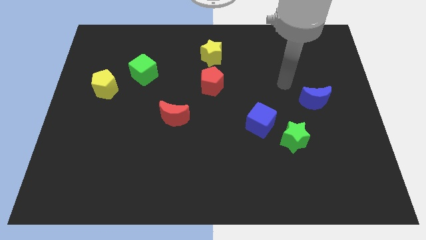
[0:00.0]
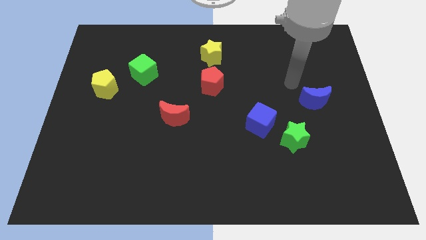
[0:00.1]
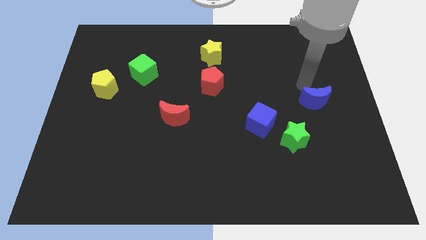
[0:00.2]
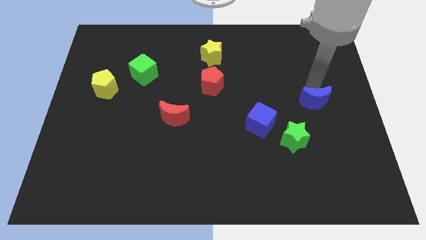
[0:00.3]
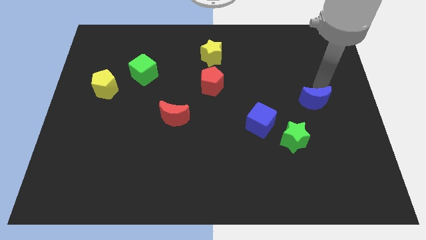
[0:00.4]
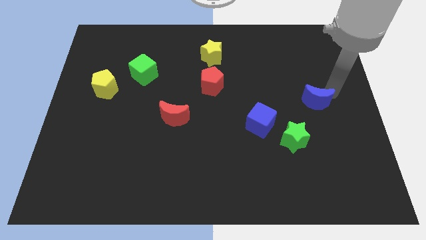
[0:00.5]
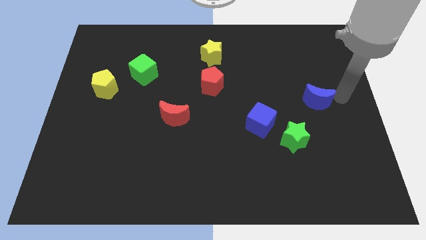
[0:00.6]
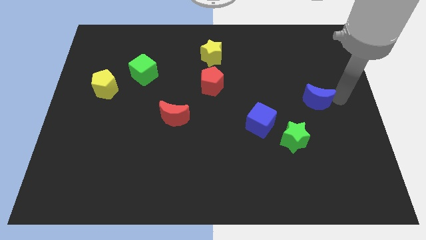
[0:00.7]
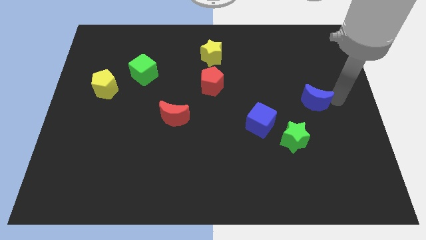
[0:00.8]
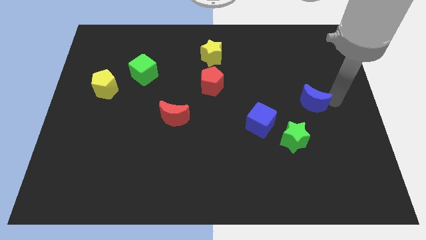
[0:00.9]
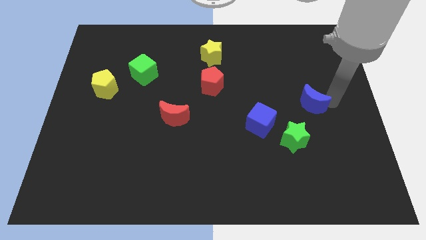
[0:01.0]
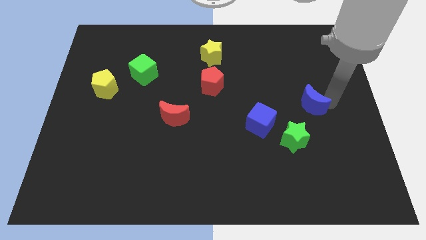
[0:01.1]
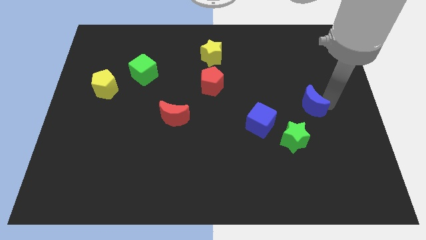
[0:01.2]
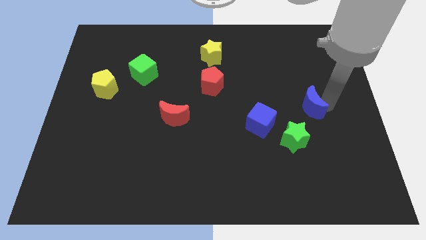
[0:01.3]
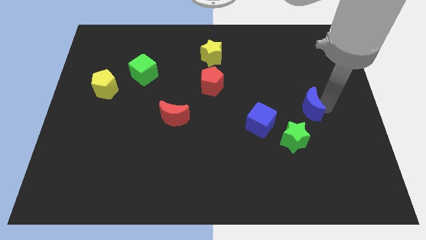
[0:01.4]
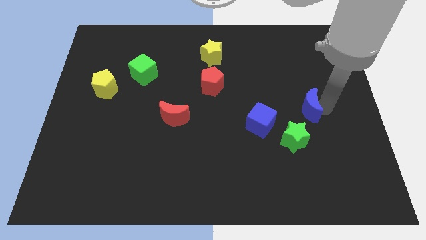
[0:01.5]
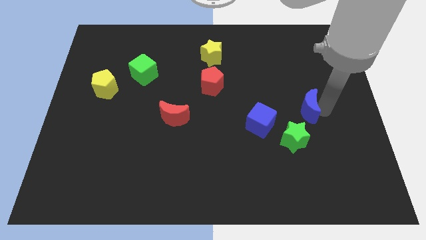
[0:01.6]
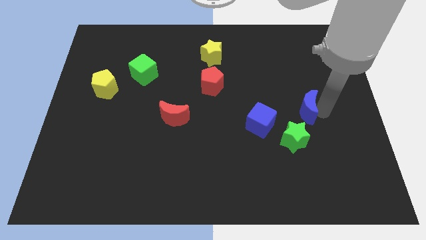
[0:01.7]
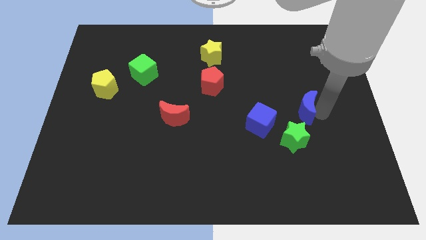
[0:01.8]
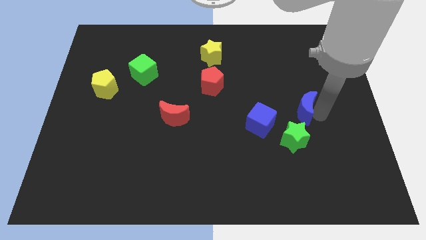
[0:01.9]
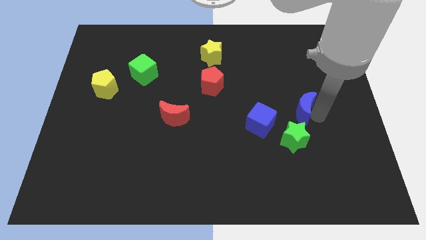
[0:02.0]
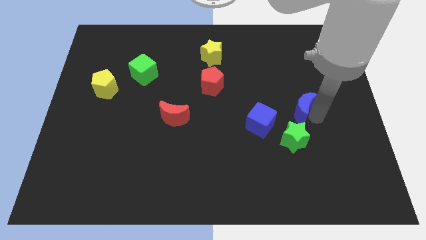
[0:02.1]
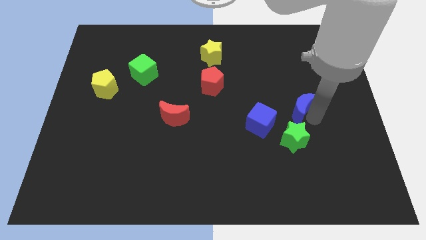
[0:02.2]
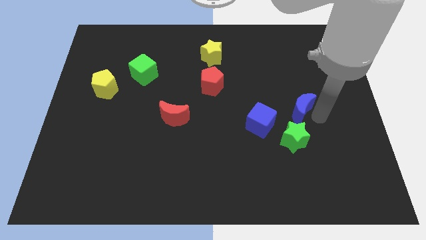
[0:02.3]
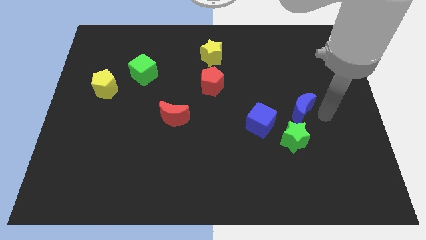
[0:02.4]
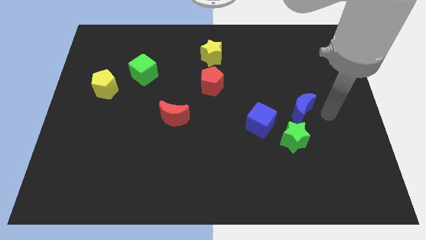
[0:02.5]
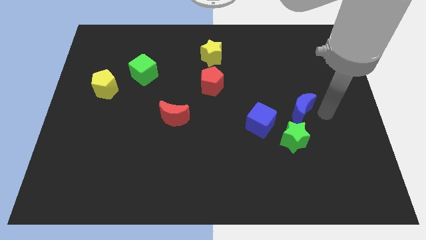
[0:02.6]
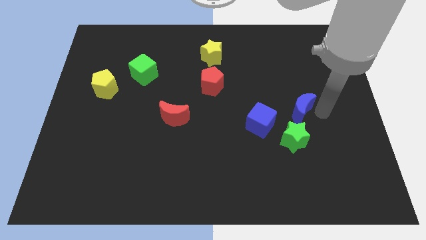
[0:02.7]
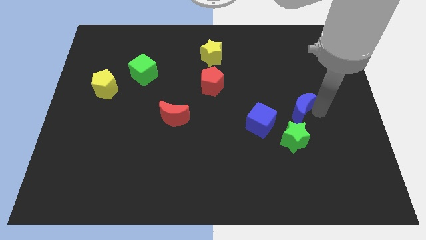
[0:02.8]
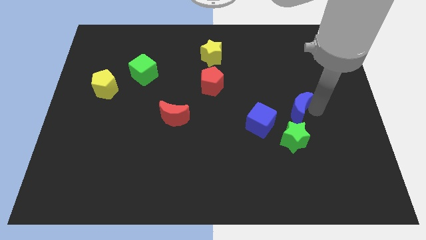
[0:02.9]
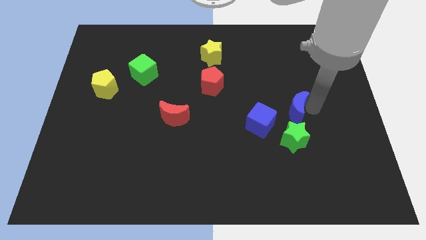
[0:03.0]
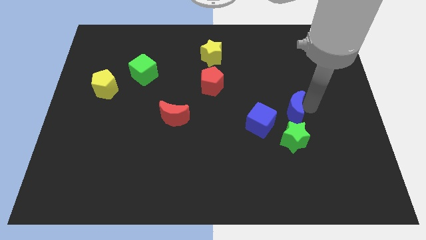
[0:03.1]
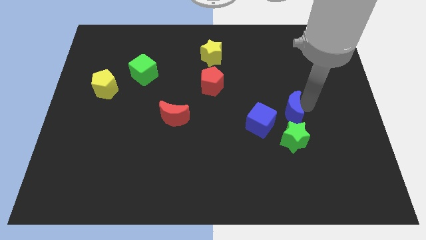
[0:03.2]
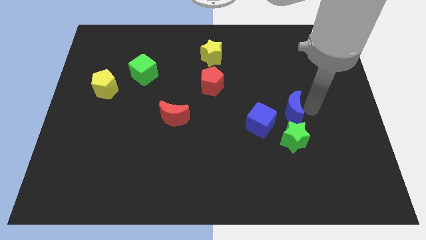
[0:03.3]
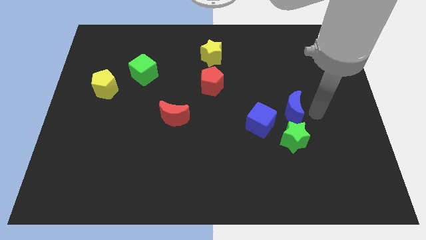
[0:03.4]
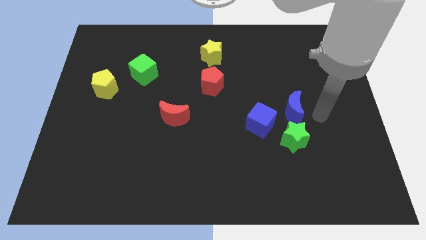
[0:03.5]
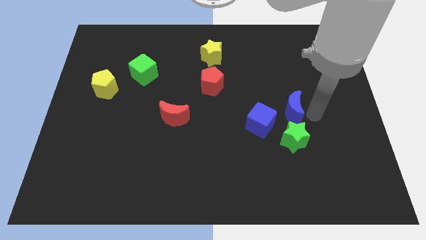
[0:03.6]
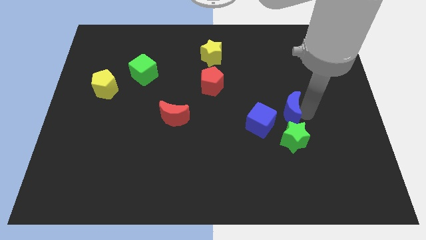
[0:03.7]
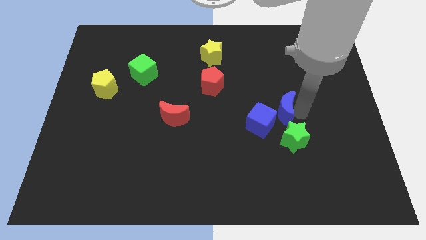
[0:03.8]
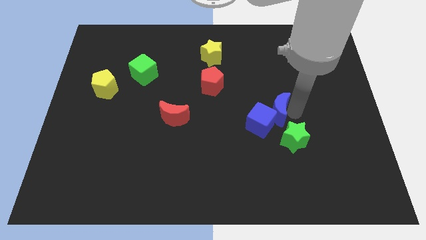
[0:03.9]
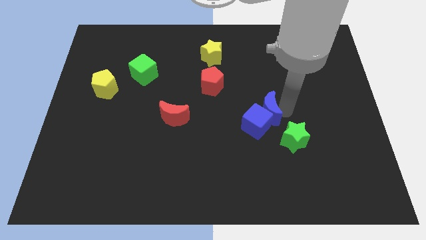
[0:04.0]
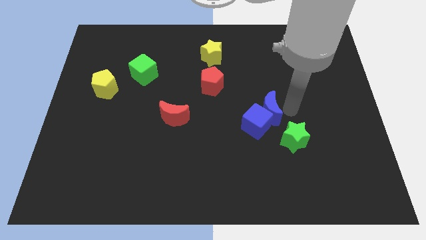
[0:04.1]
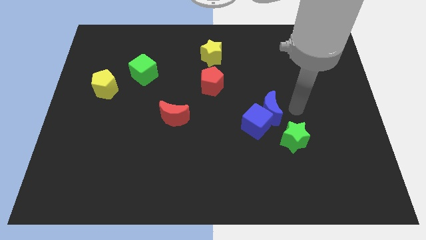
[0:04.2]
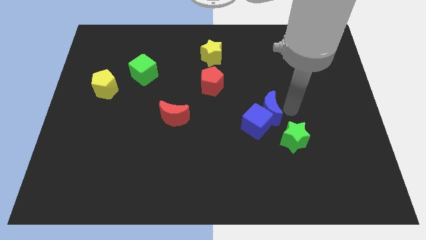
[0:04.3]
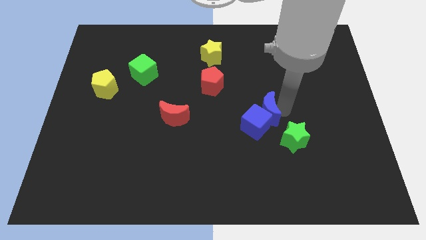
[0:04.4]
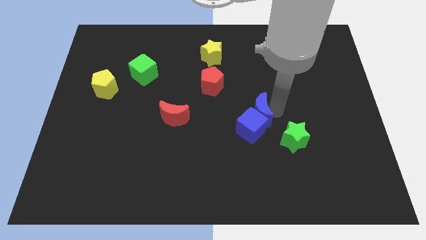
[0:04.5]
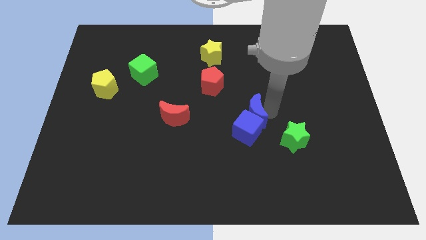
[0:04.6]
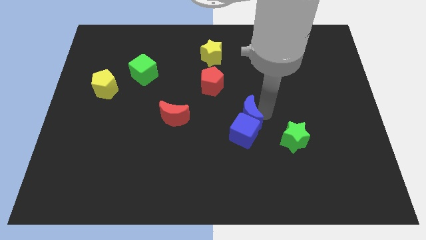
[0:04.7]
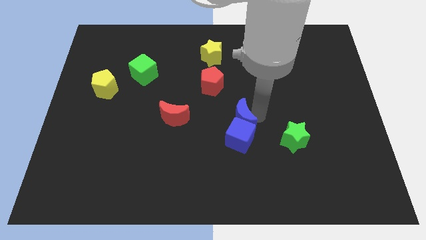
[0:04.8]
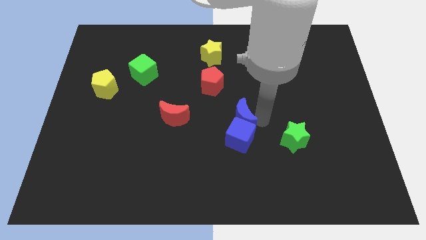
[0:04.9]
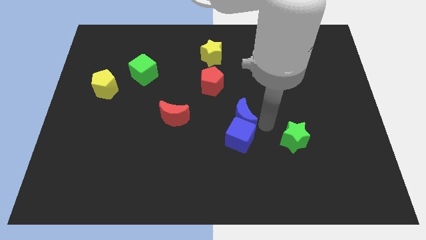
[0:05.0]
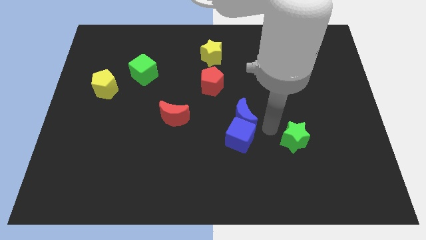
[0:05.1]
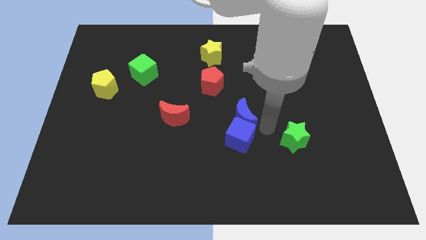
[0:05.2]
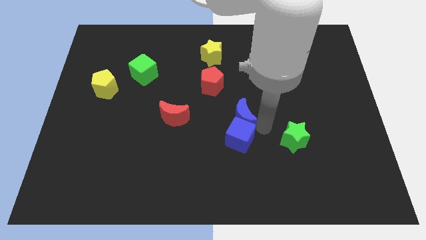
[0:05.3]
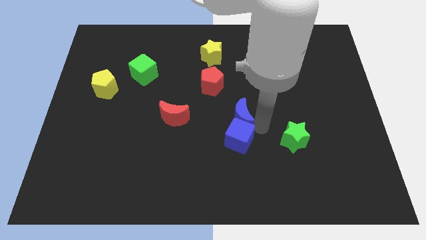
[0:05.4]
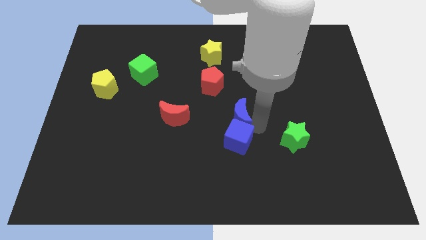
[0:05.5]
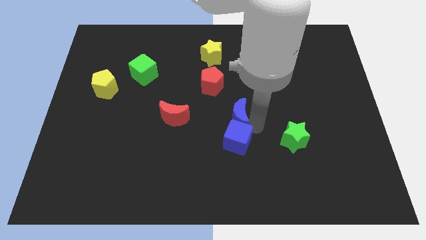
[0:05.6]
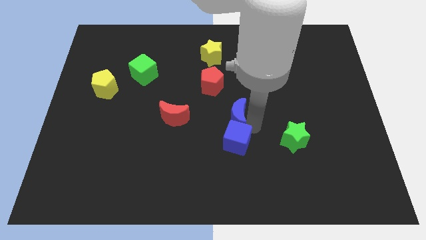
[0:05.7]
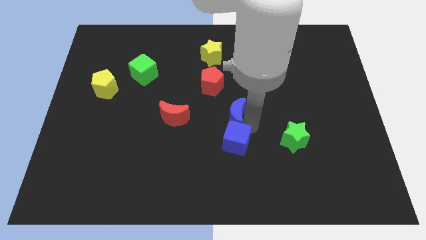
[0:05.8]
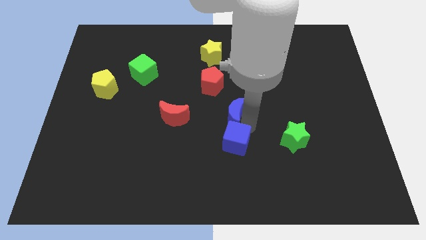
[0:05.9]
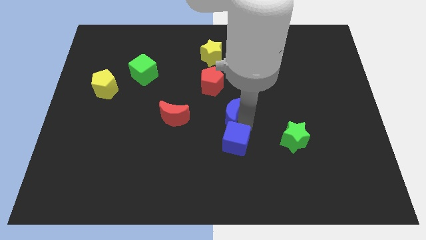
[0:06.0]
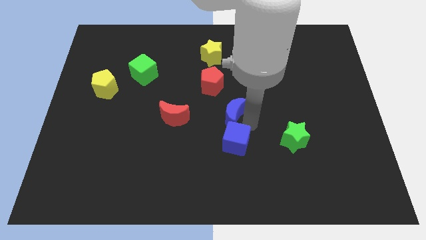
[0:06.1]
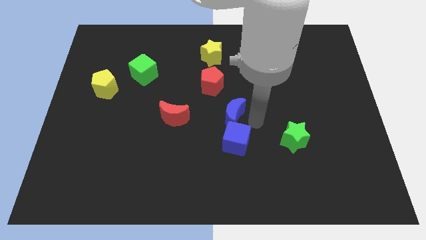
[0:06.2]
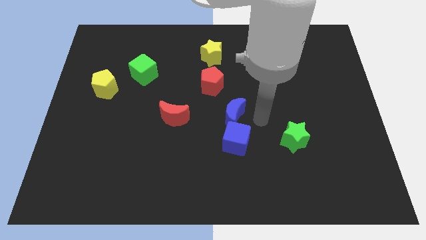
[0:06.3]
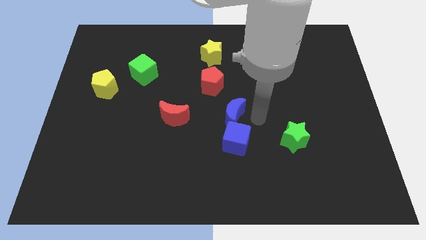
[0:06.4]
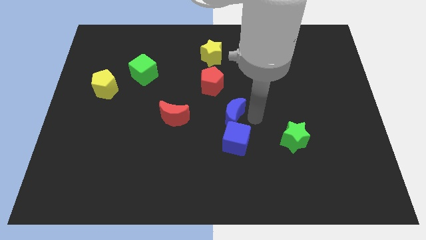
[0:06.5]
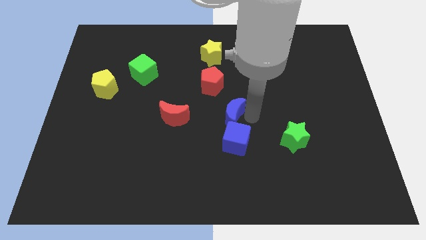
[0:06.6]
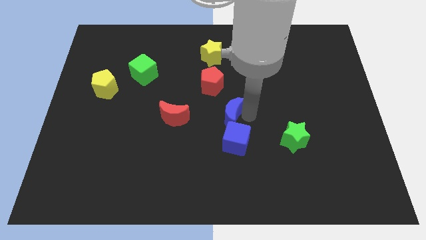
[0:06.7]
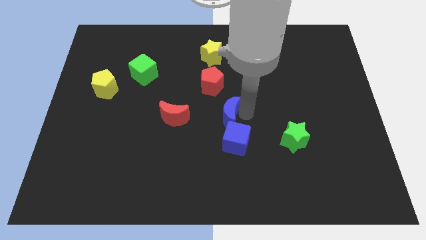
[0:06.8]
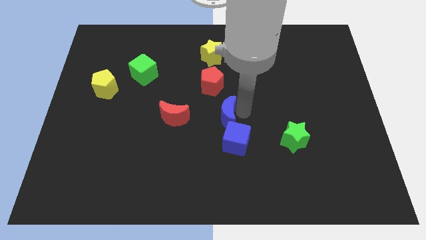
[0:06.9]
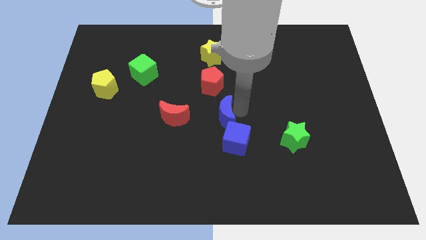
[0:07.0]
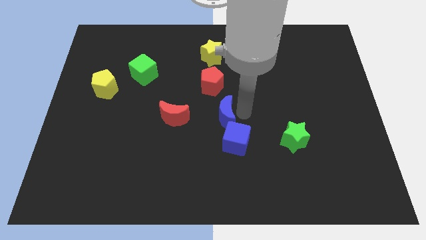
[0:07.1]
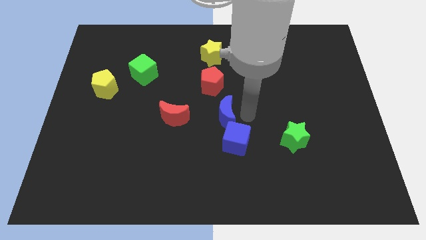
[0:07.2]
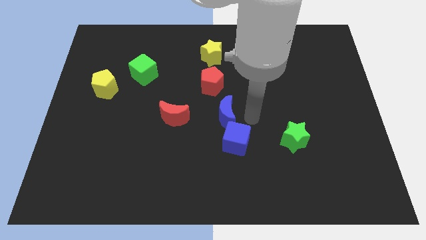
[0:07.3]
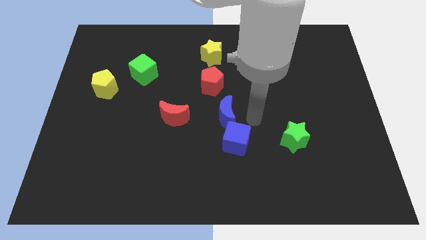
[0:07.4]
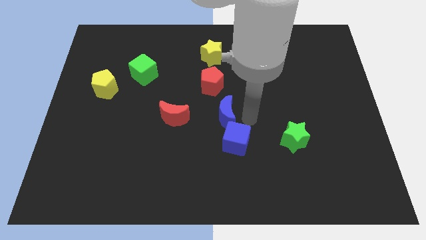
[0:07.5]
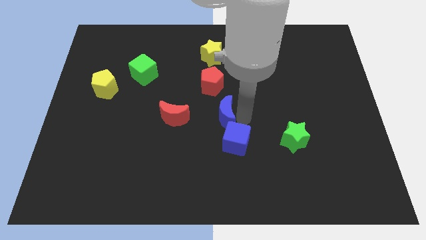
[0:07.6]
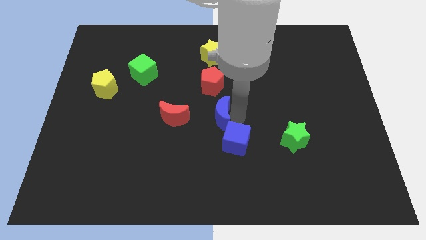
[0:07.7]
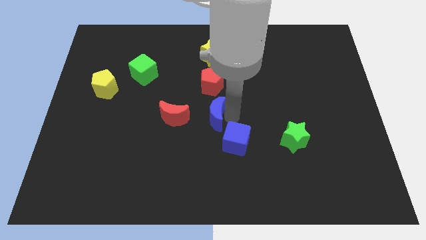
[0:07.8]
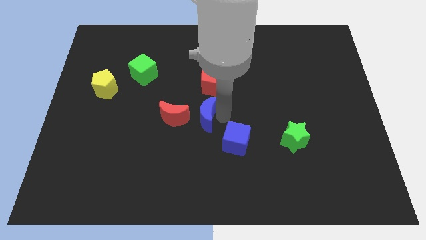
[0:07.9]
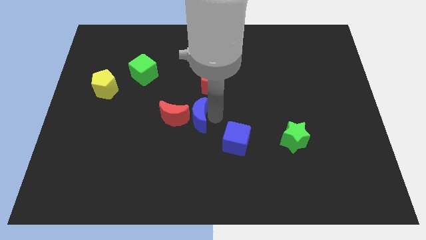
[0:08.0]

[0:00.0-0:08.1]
push the blue moon towards the red moon
